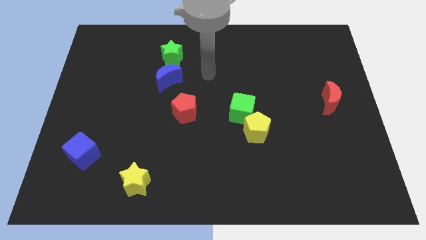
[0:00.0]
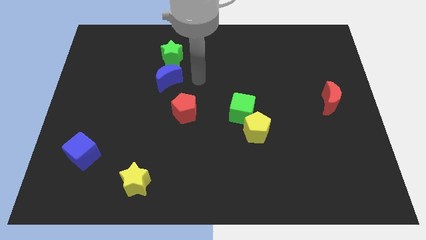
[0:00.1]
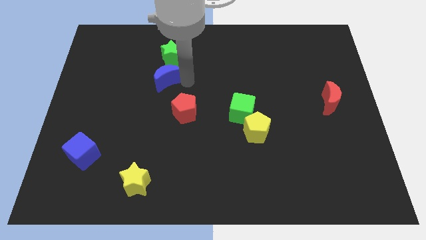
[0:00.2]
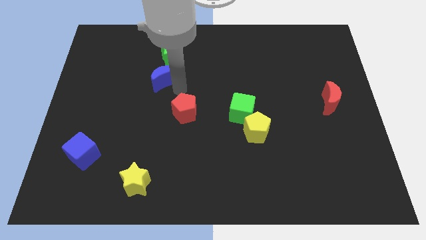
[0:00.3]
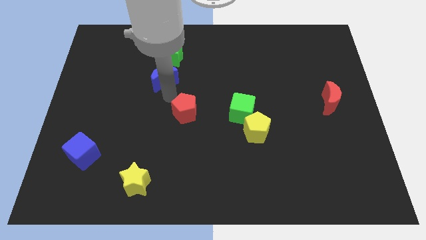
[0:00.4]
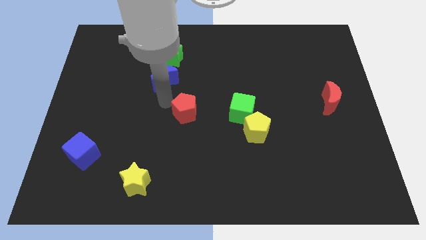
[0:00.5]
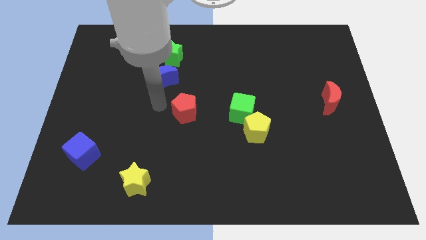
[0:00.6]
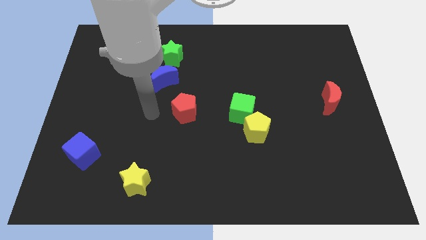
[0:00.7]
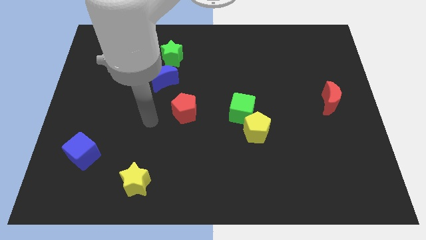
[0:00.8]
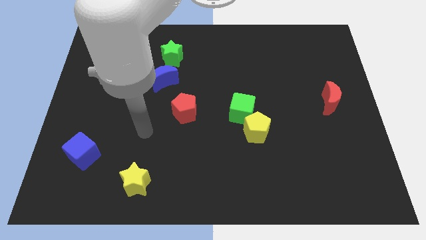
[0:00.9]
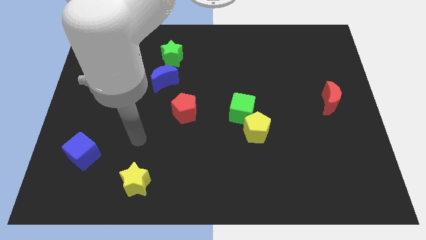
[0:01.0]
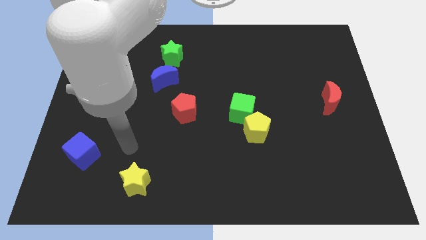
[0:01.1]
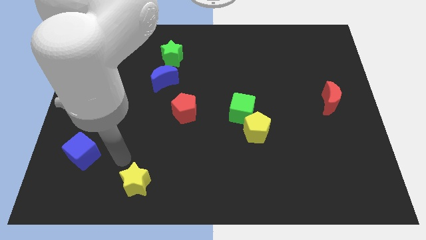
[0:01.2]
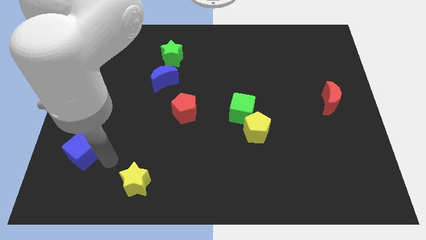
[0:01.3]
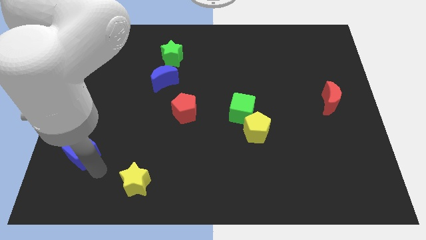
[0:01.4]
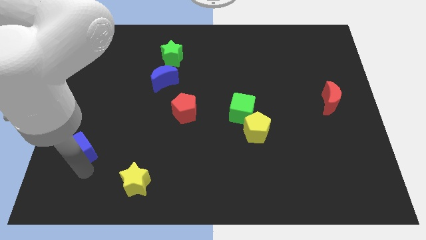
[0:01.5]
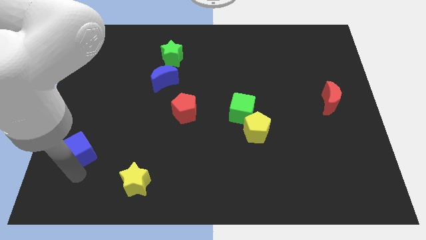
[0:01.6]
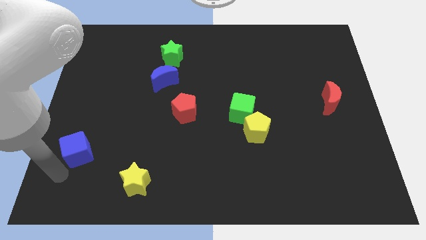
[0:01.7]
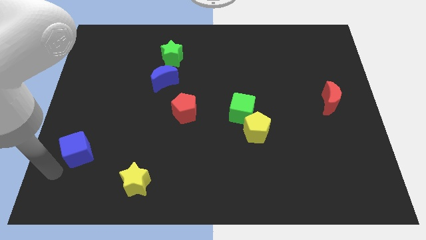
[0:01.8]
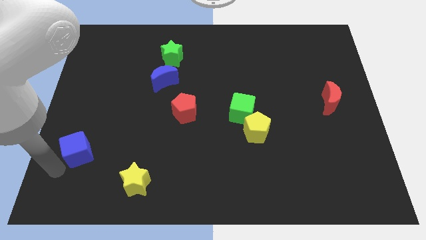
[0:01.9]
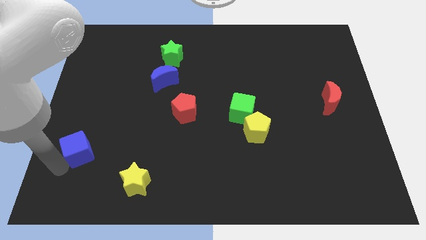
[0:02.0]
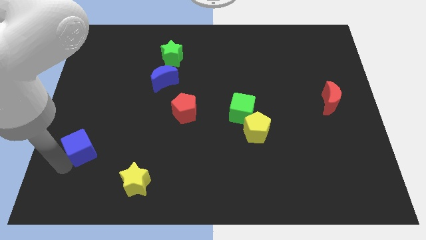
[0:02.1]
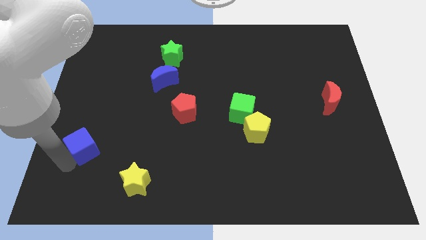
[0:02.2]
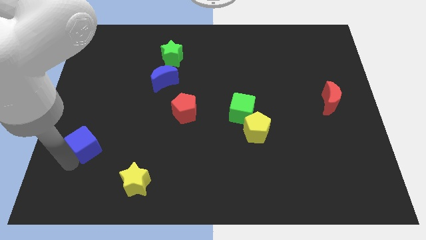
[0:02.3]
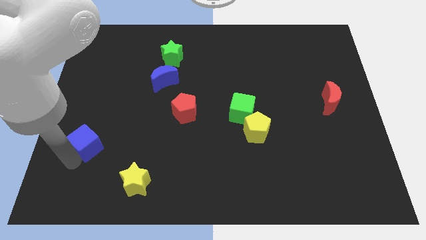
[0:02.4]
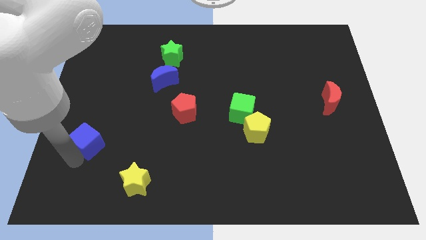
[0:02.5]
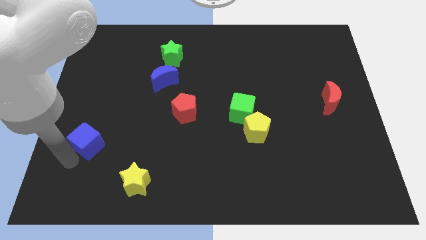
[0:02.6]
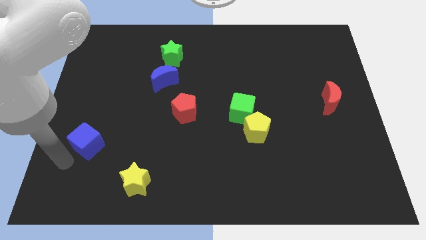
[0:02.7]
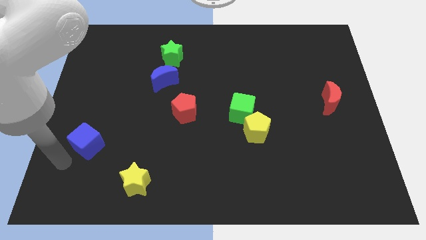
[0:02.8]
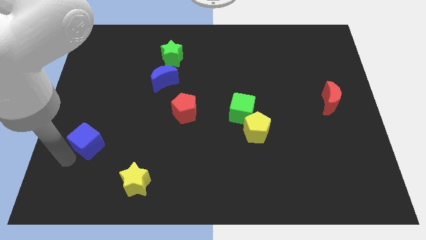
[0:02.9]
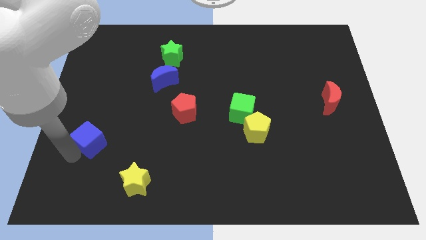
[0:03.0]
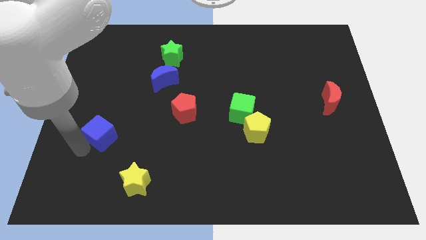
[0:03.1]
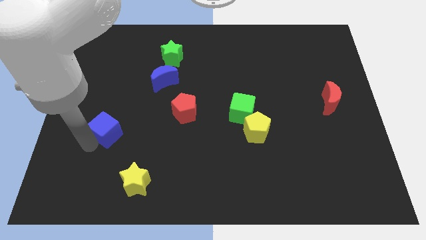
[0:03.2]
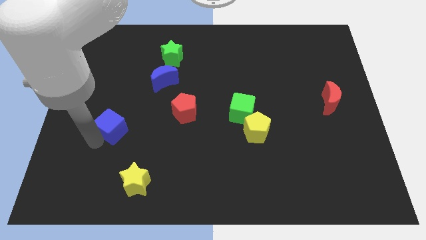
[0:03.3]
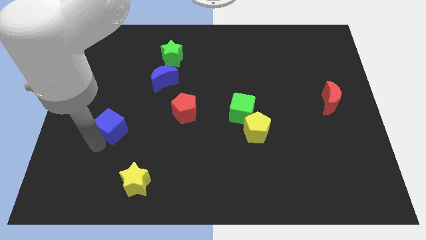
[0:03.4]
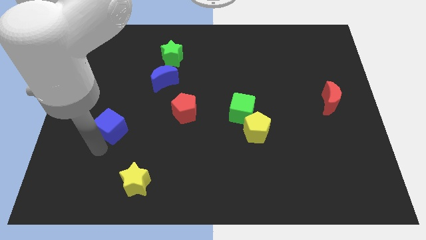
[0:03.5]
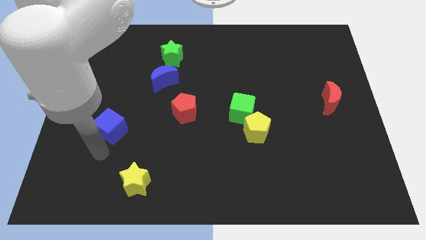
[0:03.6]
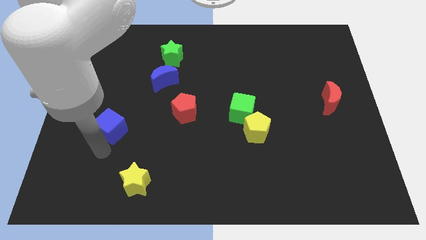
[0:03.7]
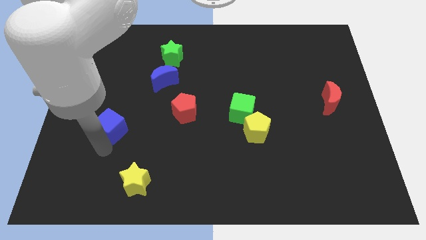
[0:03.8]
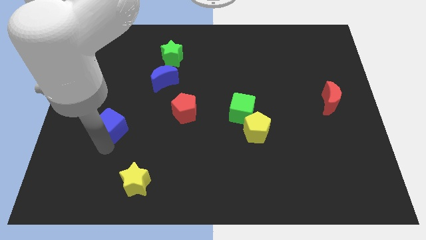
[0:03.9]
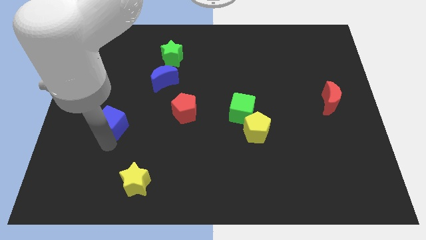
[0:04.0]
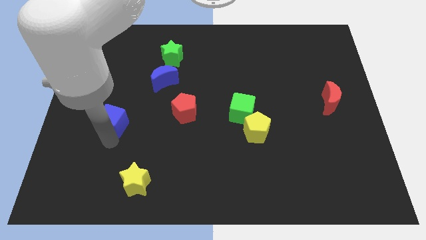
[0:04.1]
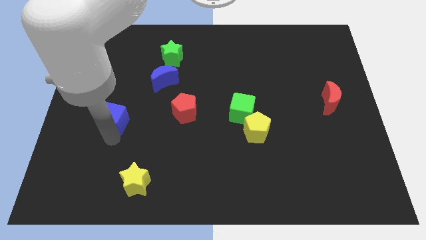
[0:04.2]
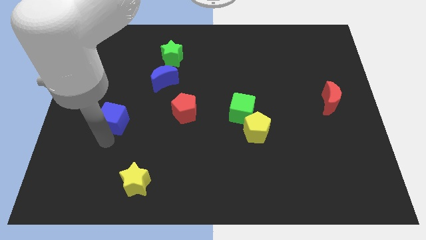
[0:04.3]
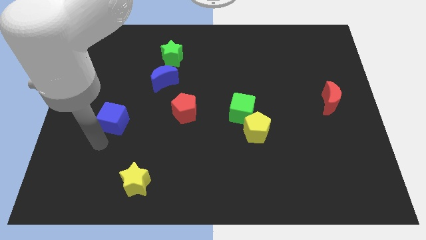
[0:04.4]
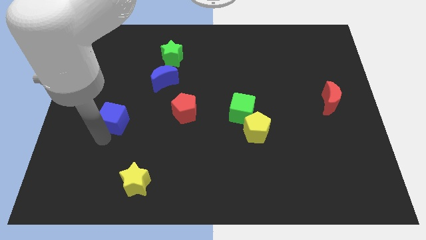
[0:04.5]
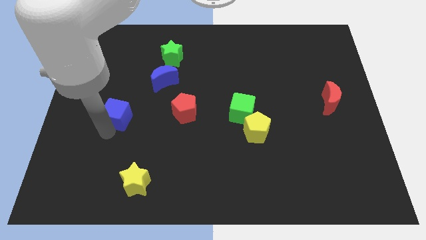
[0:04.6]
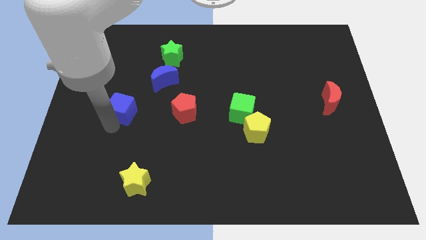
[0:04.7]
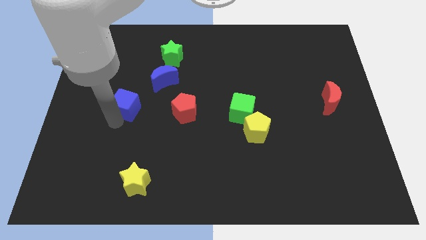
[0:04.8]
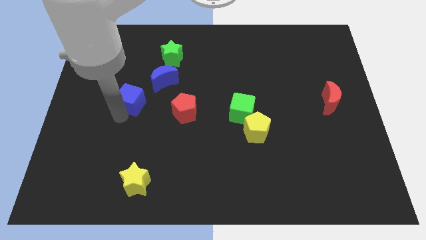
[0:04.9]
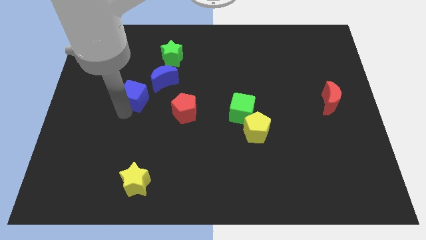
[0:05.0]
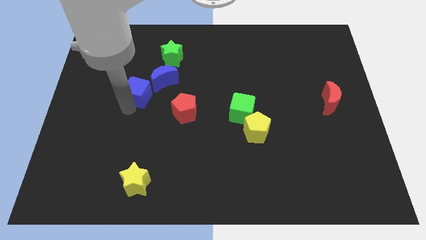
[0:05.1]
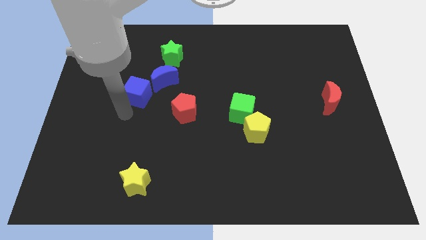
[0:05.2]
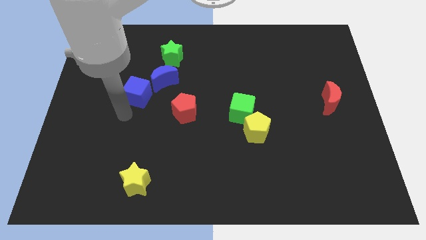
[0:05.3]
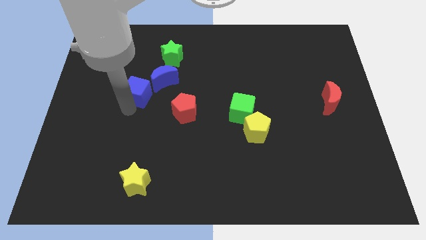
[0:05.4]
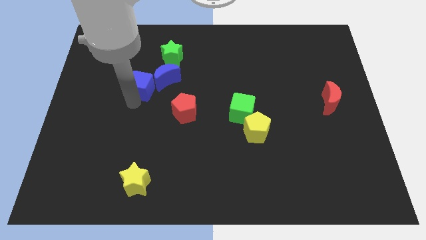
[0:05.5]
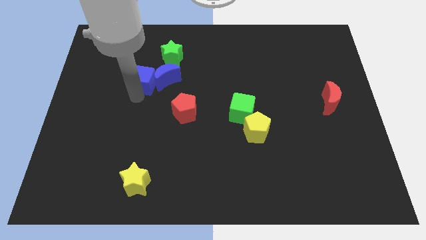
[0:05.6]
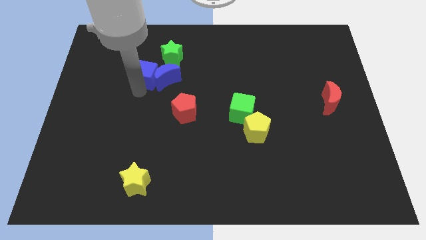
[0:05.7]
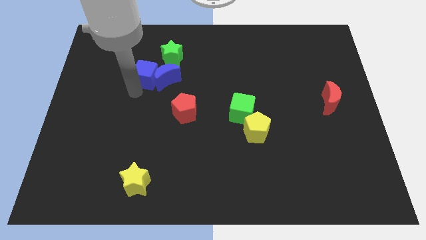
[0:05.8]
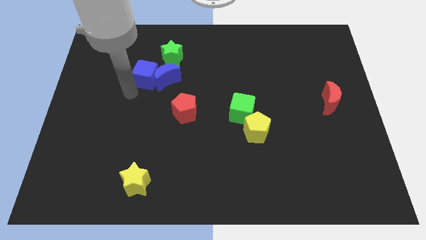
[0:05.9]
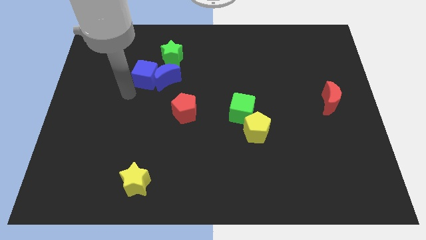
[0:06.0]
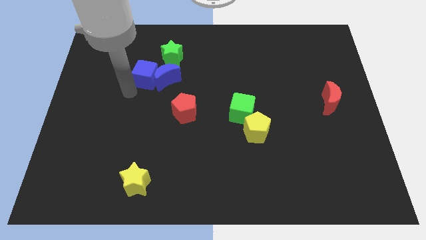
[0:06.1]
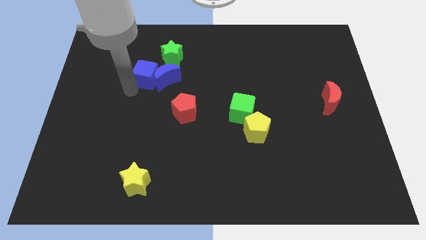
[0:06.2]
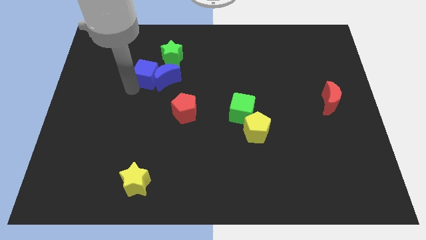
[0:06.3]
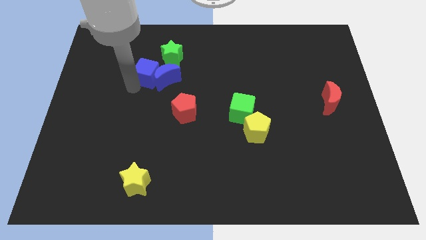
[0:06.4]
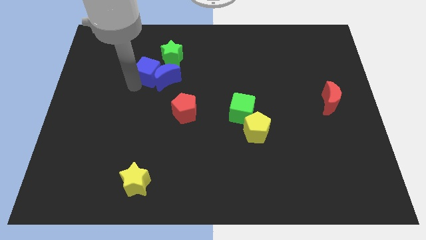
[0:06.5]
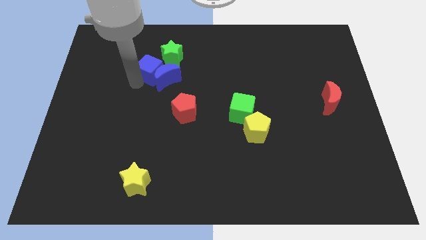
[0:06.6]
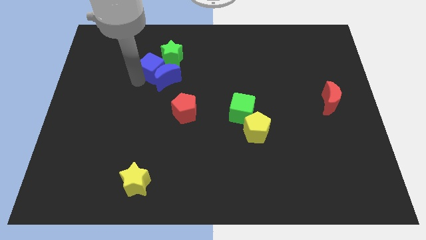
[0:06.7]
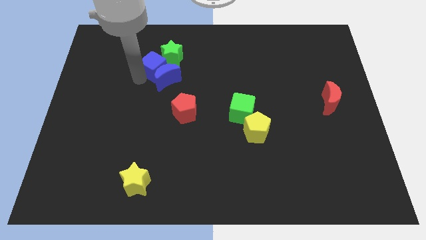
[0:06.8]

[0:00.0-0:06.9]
move the blue cube to the green star
